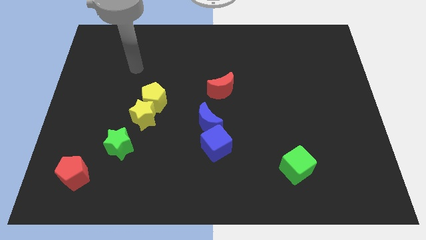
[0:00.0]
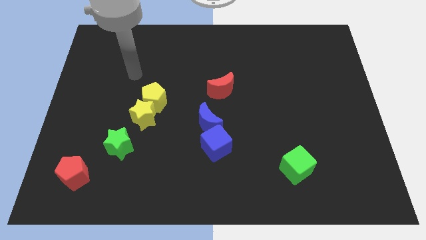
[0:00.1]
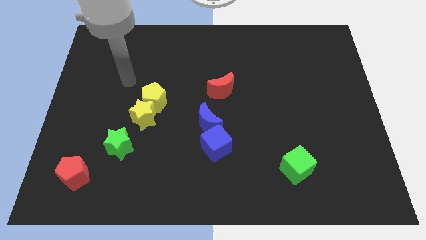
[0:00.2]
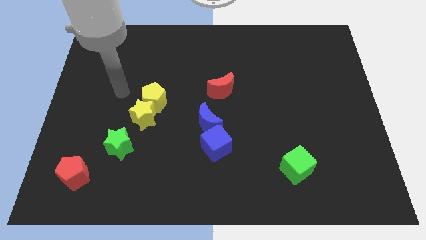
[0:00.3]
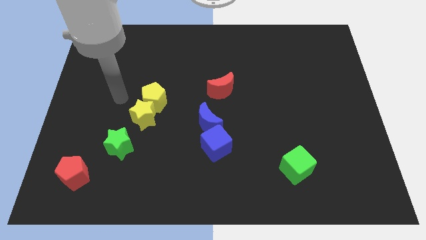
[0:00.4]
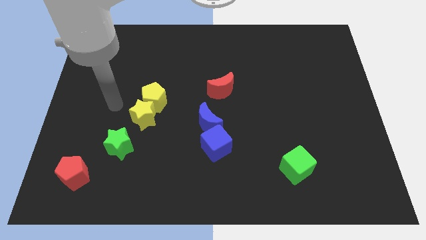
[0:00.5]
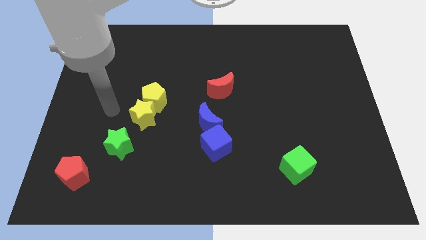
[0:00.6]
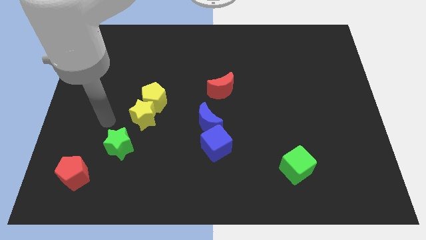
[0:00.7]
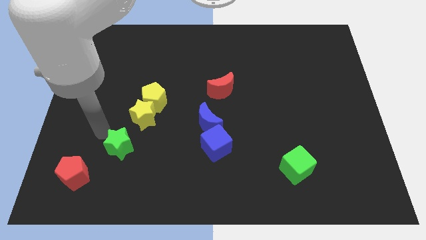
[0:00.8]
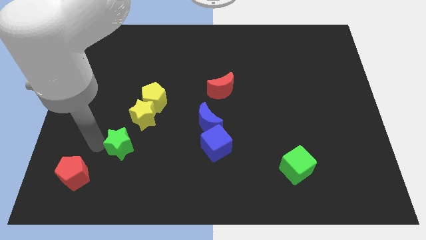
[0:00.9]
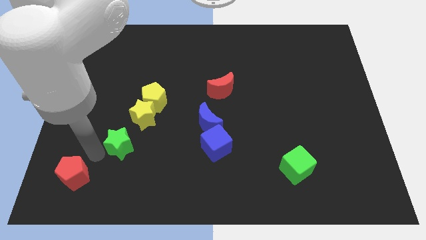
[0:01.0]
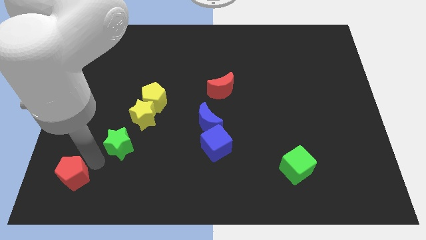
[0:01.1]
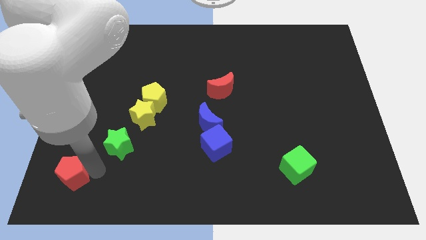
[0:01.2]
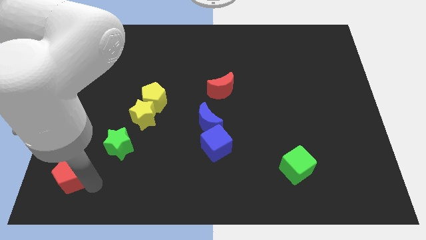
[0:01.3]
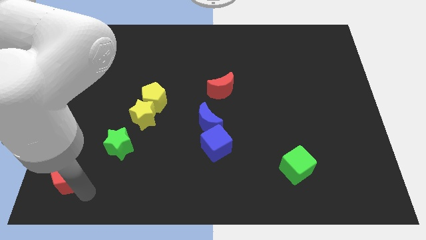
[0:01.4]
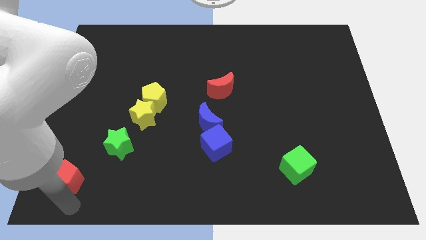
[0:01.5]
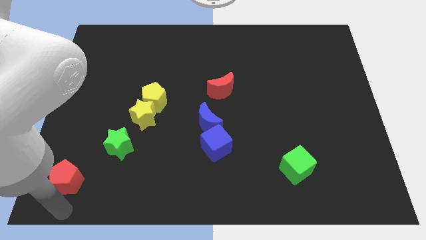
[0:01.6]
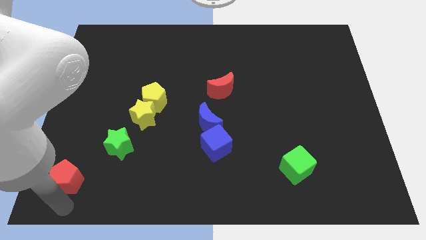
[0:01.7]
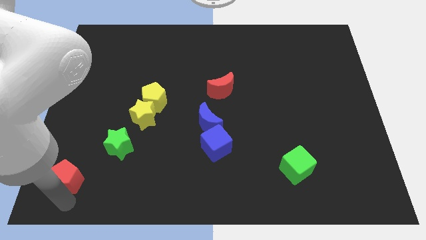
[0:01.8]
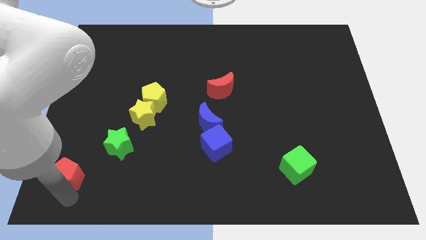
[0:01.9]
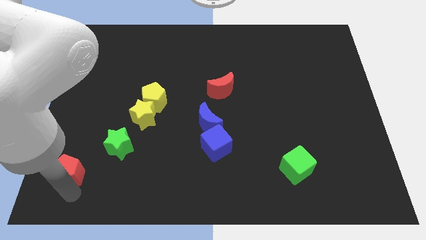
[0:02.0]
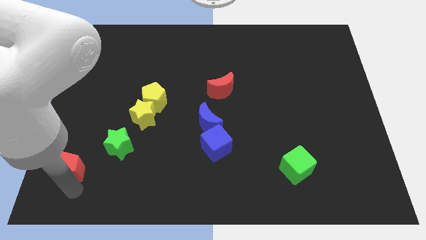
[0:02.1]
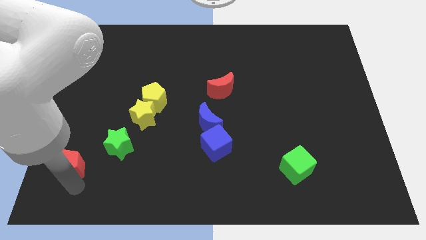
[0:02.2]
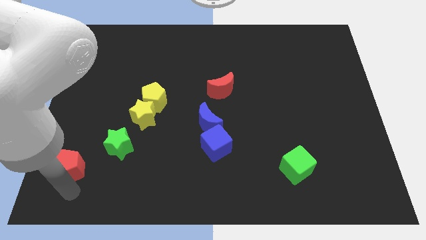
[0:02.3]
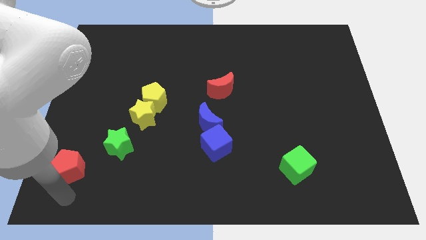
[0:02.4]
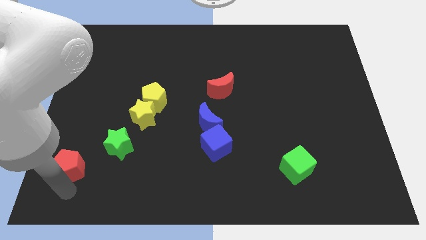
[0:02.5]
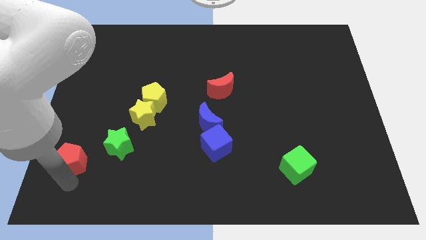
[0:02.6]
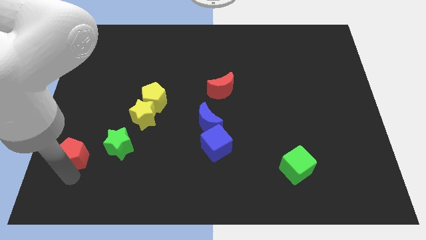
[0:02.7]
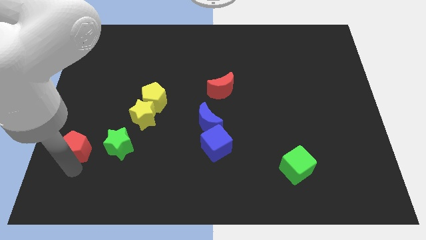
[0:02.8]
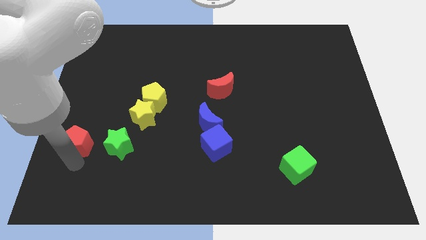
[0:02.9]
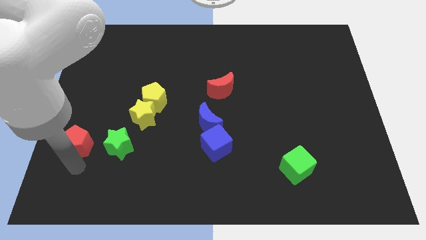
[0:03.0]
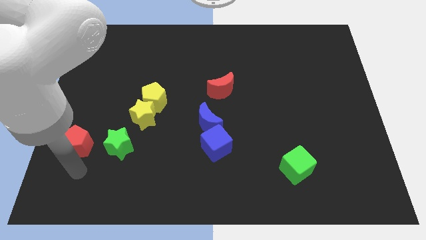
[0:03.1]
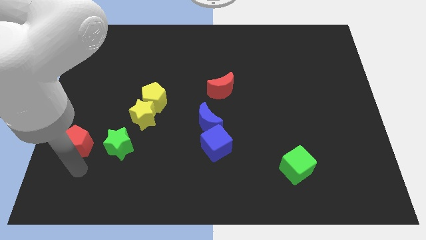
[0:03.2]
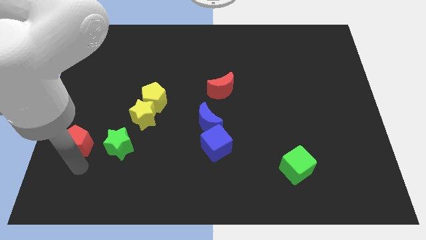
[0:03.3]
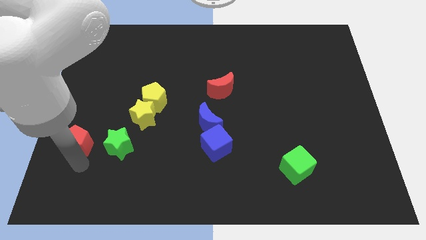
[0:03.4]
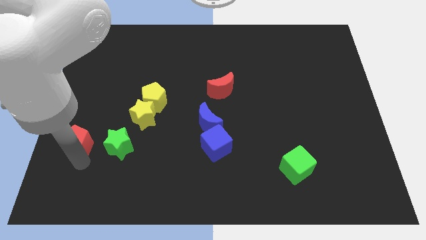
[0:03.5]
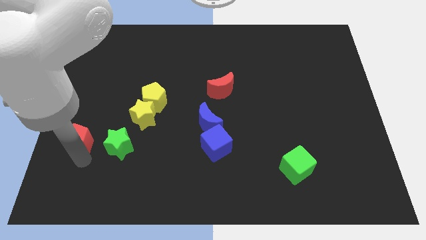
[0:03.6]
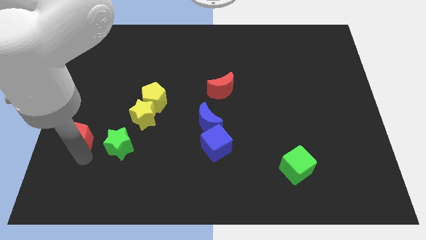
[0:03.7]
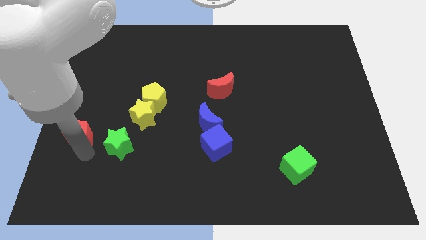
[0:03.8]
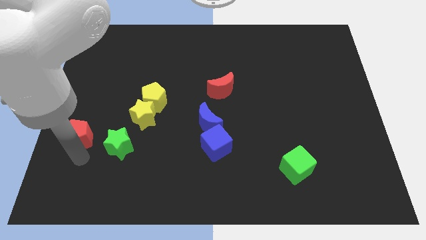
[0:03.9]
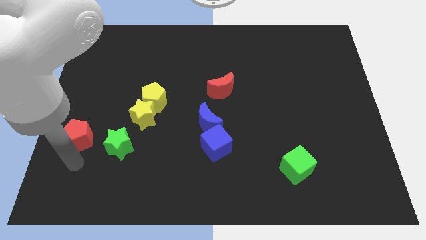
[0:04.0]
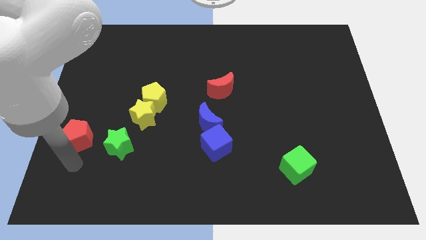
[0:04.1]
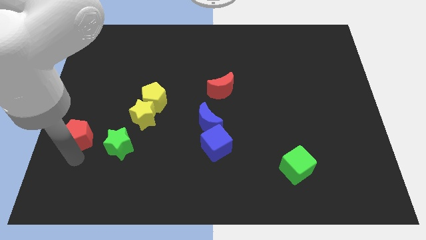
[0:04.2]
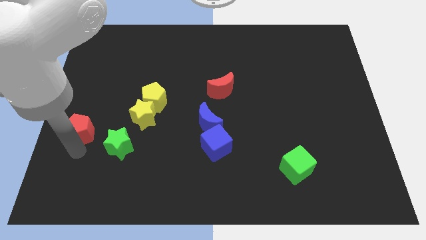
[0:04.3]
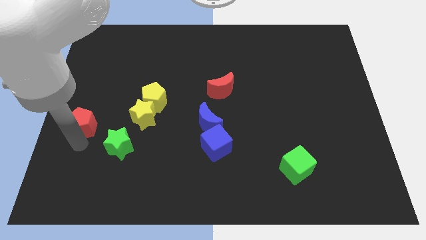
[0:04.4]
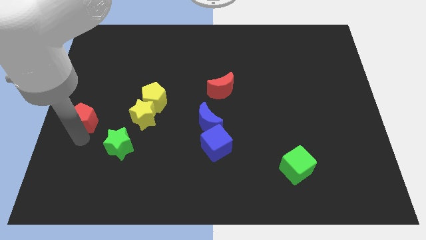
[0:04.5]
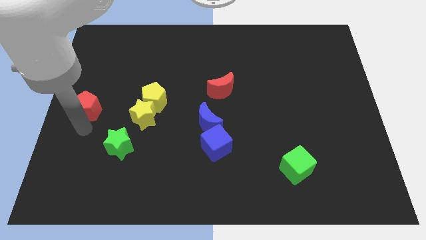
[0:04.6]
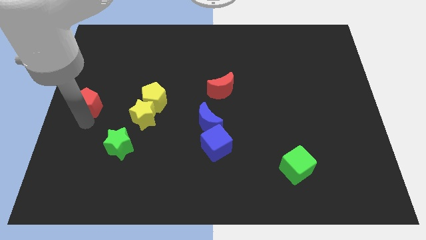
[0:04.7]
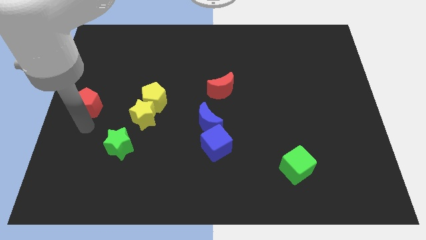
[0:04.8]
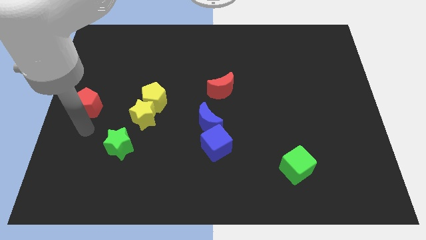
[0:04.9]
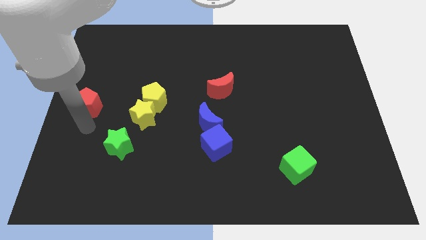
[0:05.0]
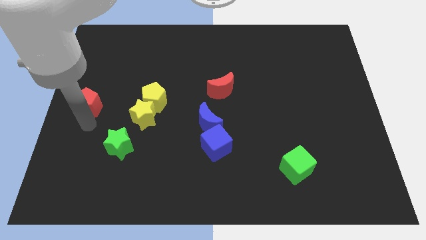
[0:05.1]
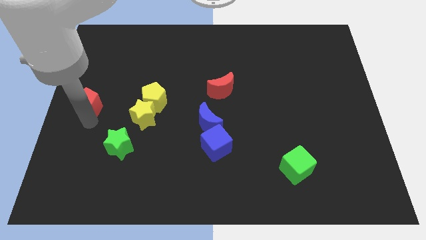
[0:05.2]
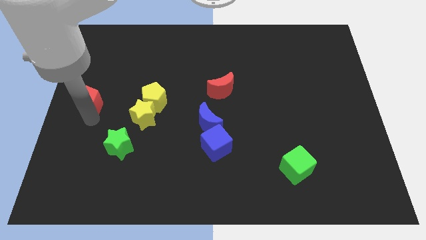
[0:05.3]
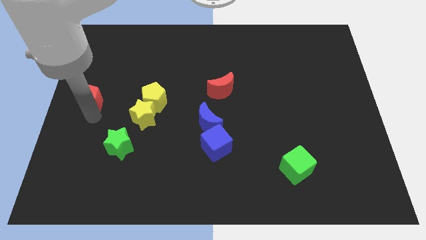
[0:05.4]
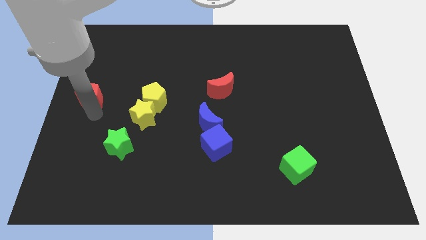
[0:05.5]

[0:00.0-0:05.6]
move the red pentagon up

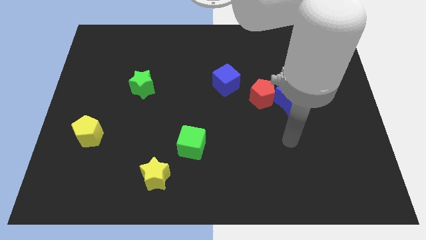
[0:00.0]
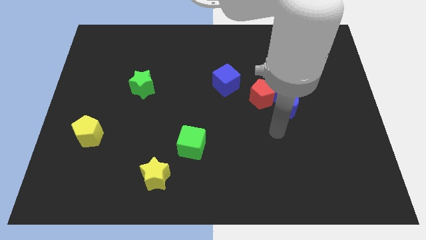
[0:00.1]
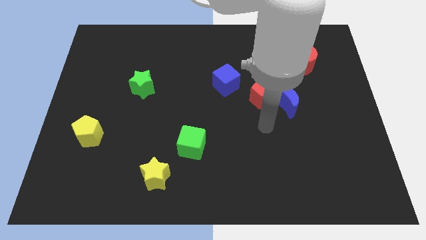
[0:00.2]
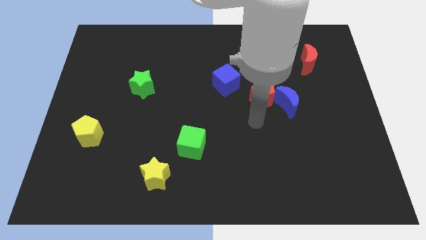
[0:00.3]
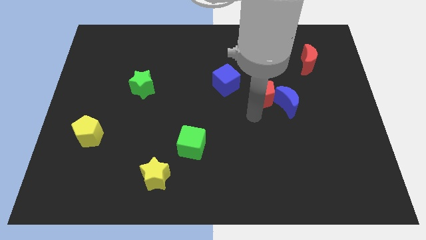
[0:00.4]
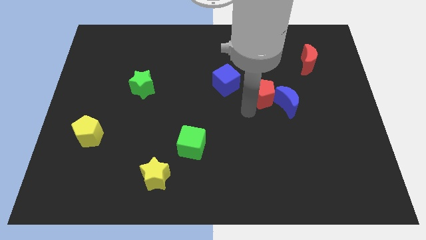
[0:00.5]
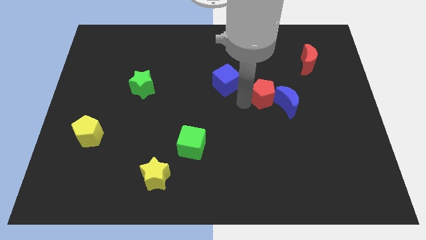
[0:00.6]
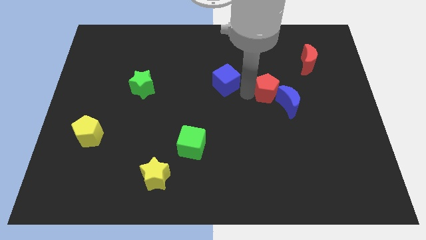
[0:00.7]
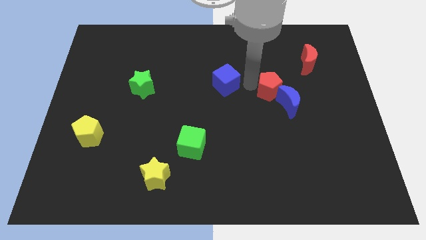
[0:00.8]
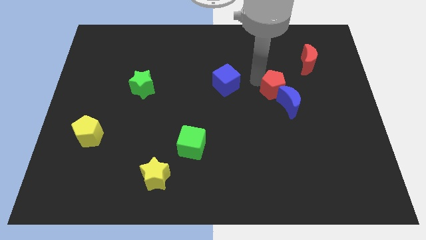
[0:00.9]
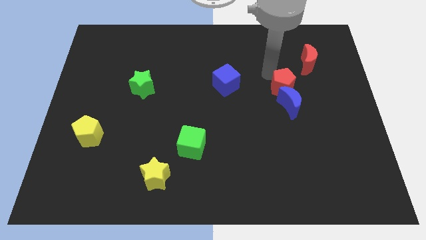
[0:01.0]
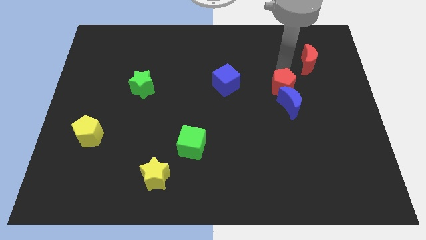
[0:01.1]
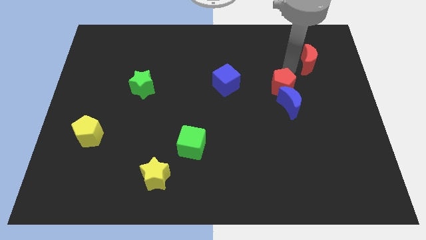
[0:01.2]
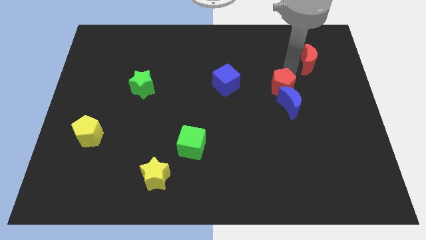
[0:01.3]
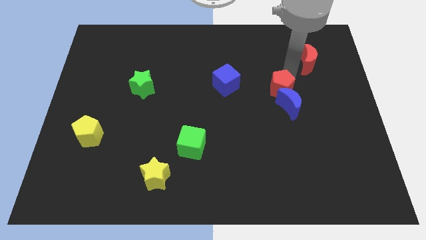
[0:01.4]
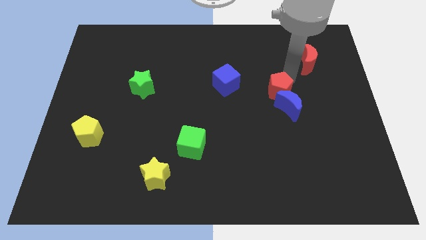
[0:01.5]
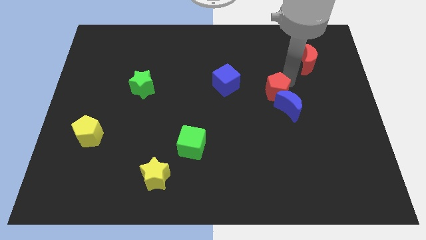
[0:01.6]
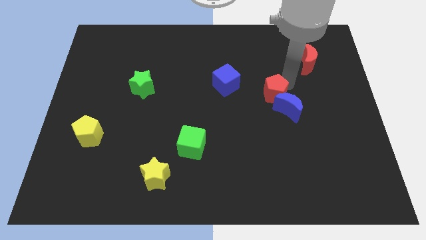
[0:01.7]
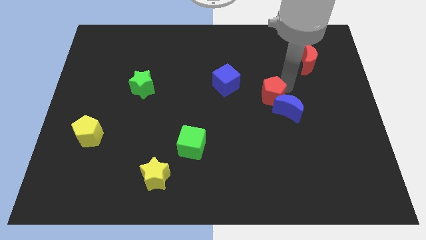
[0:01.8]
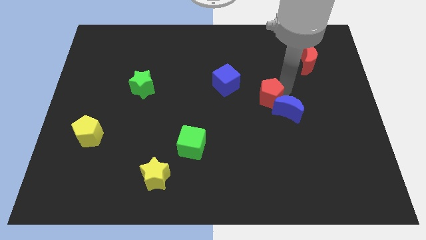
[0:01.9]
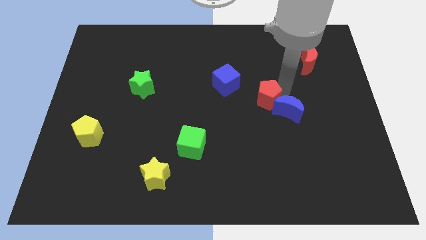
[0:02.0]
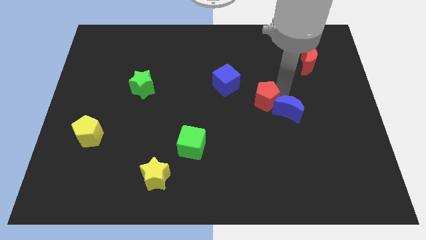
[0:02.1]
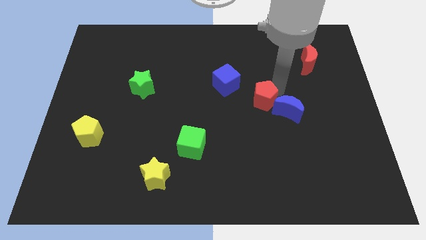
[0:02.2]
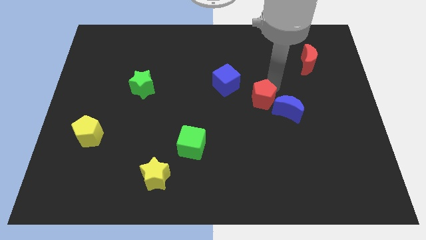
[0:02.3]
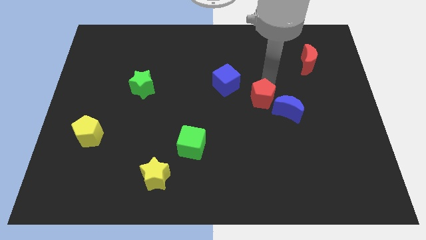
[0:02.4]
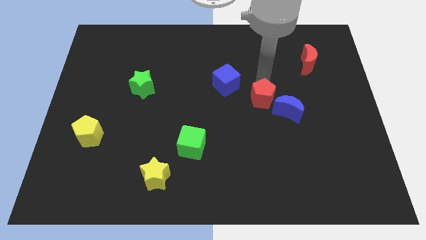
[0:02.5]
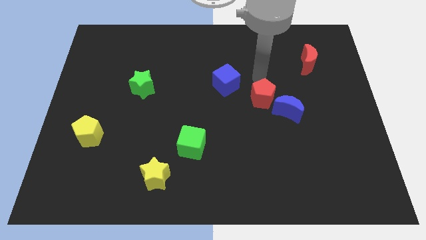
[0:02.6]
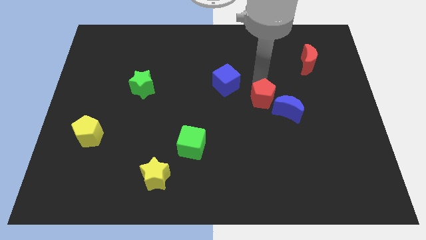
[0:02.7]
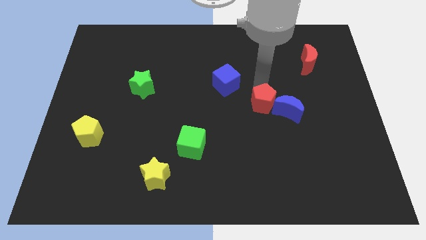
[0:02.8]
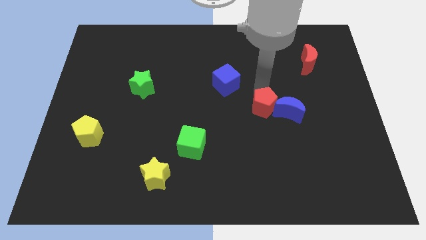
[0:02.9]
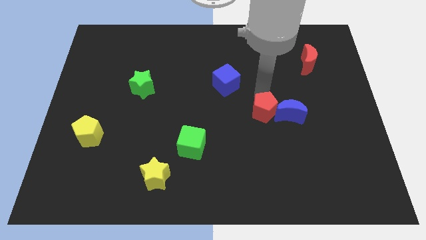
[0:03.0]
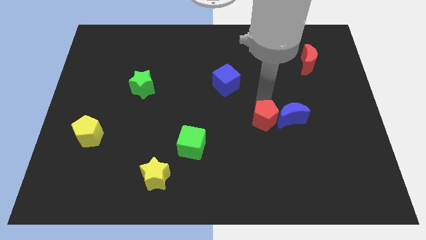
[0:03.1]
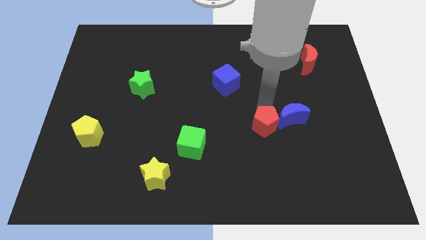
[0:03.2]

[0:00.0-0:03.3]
slightly push the red pentagon down
